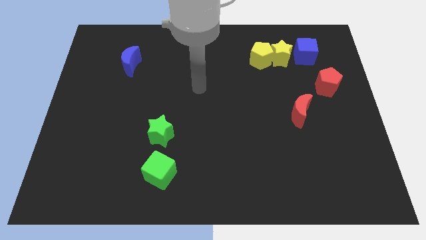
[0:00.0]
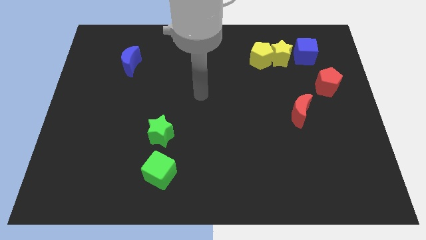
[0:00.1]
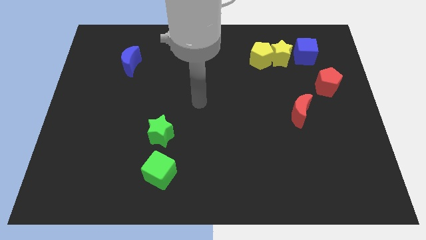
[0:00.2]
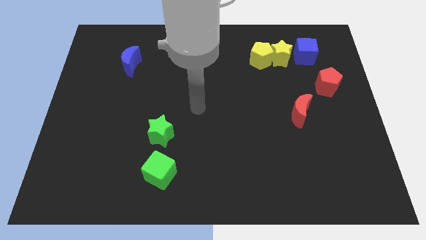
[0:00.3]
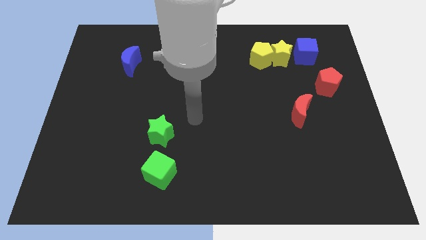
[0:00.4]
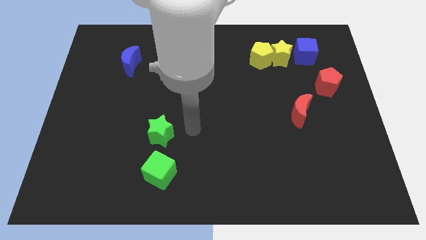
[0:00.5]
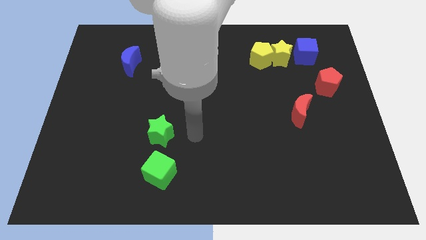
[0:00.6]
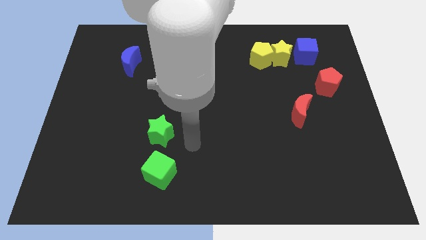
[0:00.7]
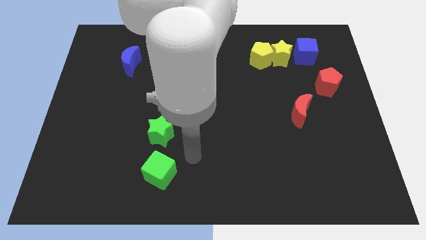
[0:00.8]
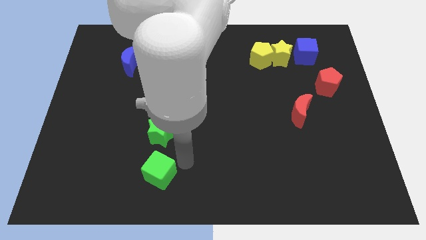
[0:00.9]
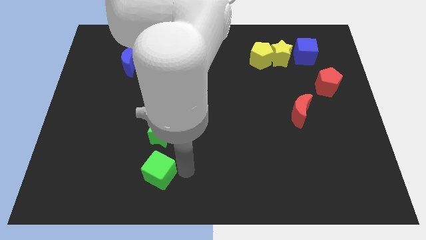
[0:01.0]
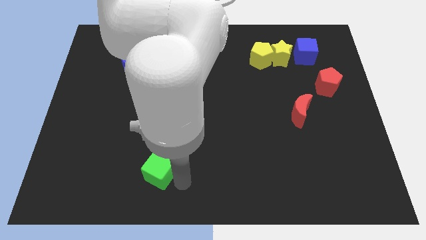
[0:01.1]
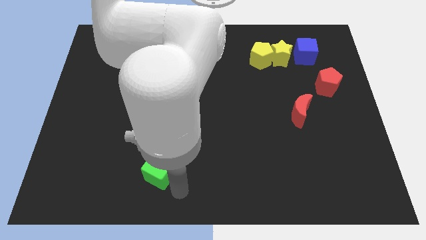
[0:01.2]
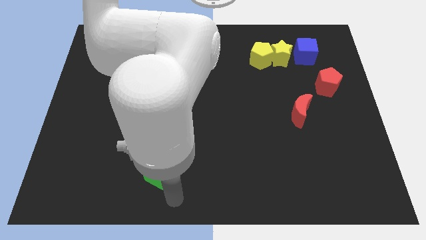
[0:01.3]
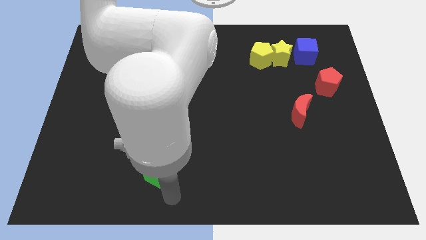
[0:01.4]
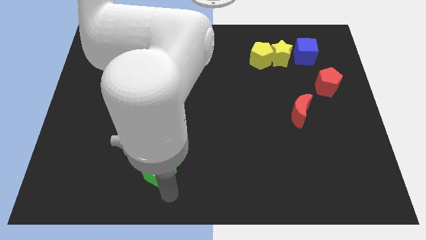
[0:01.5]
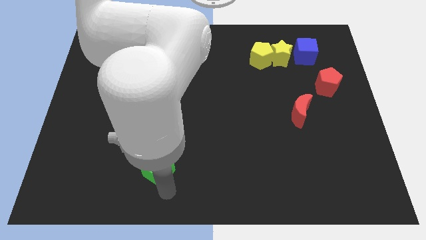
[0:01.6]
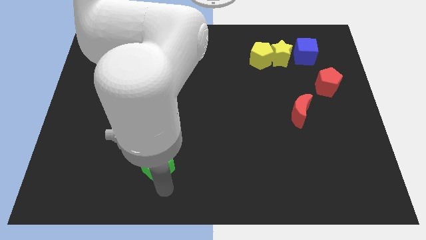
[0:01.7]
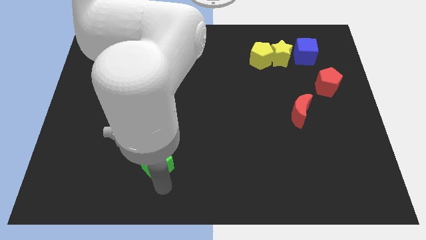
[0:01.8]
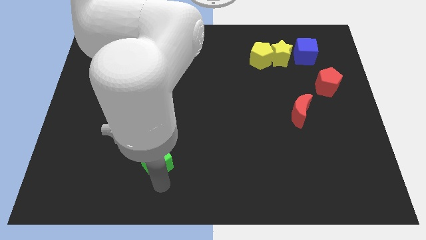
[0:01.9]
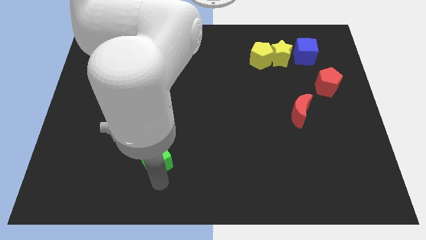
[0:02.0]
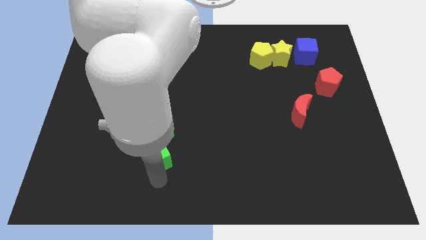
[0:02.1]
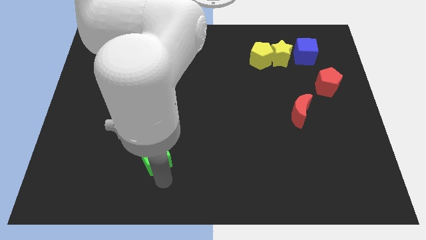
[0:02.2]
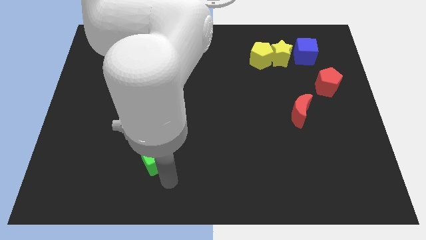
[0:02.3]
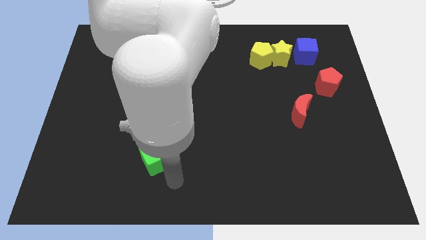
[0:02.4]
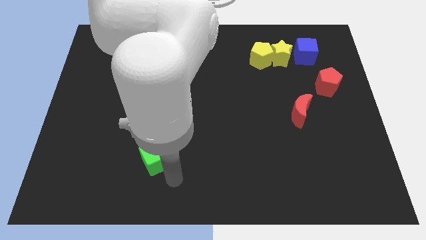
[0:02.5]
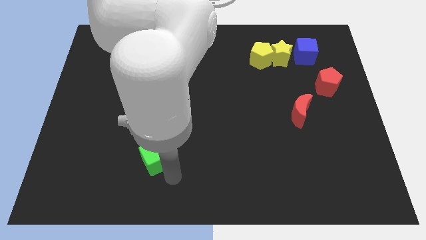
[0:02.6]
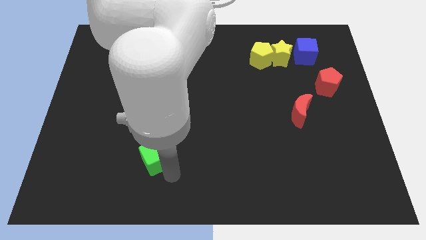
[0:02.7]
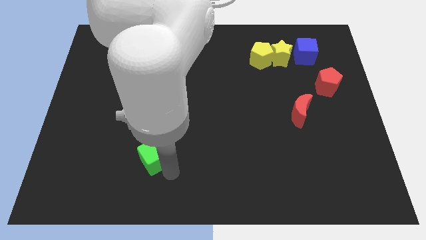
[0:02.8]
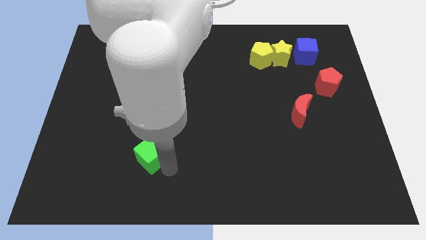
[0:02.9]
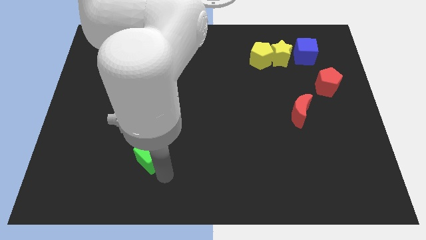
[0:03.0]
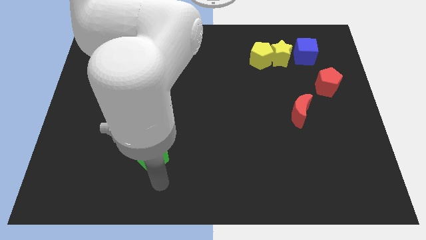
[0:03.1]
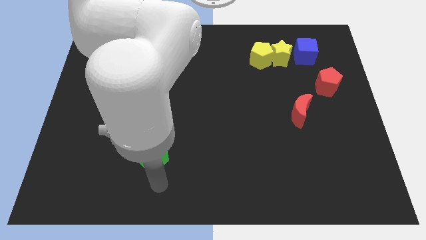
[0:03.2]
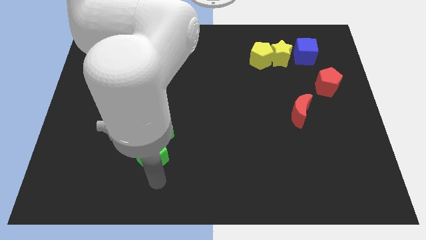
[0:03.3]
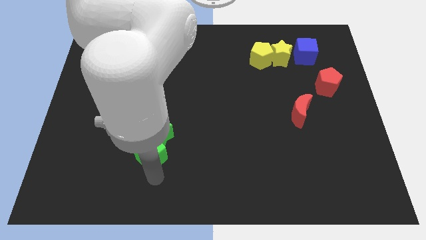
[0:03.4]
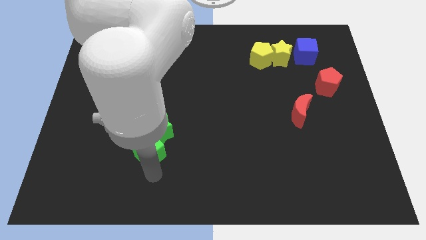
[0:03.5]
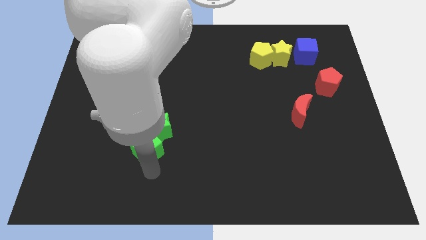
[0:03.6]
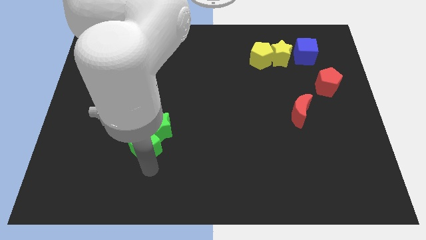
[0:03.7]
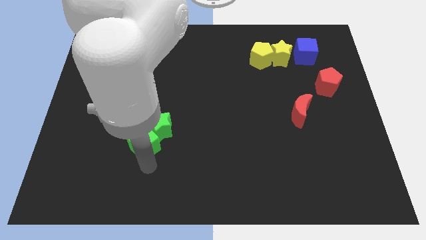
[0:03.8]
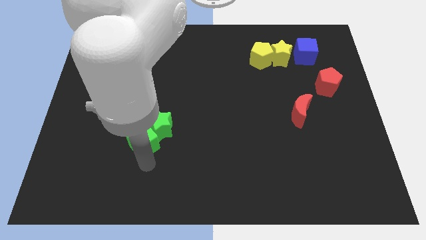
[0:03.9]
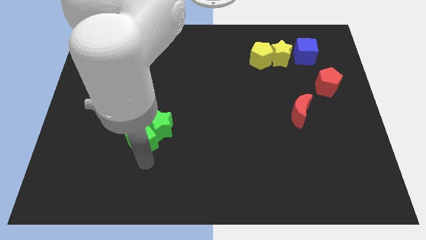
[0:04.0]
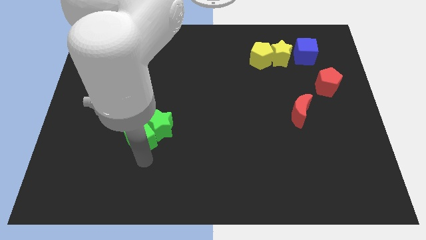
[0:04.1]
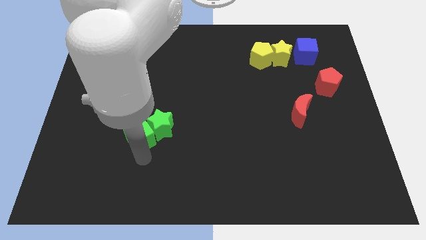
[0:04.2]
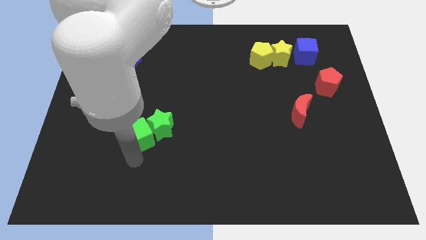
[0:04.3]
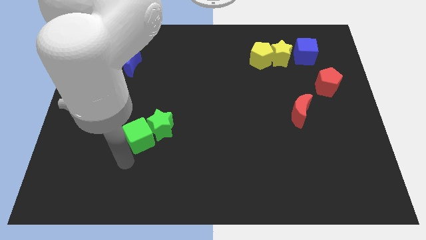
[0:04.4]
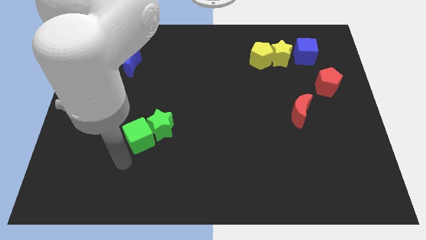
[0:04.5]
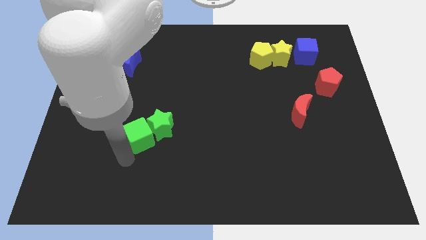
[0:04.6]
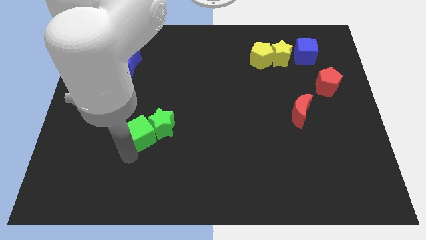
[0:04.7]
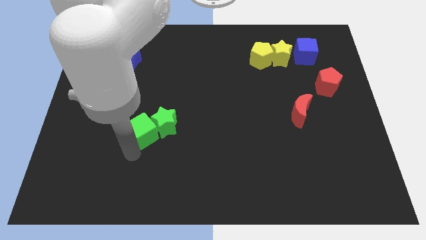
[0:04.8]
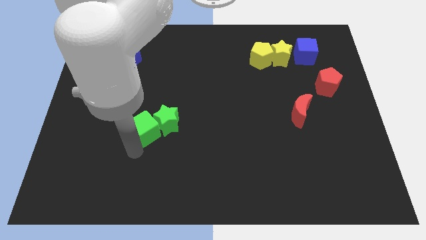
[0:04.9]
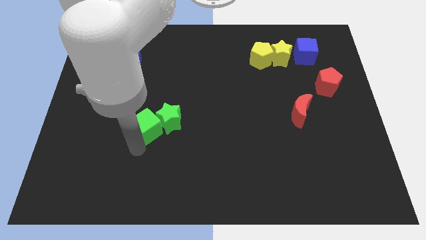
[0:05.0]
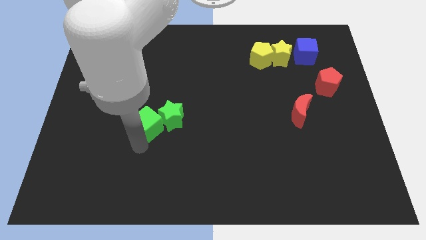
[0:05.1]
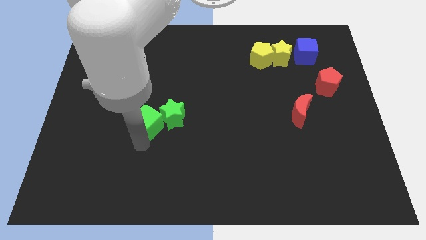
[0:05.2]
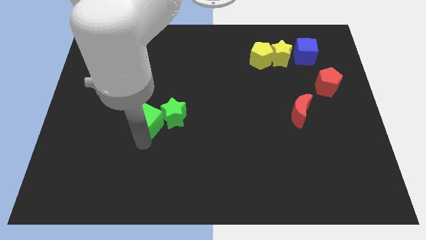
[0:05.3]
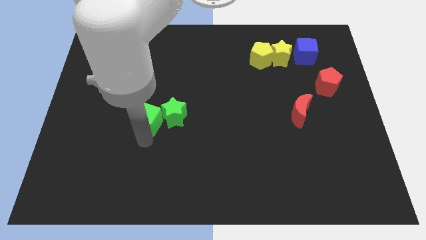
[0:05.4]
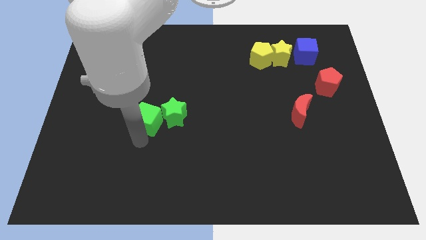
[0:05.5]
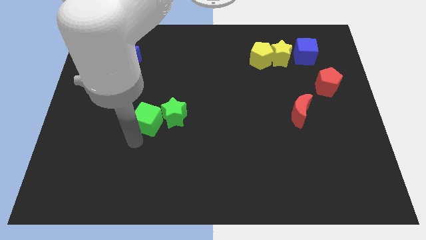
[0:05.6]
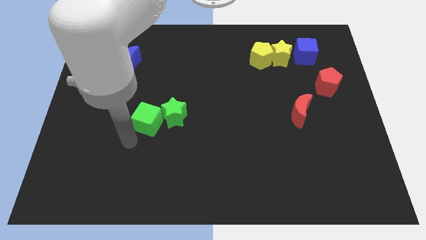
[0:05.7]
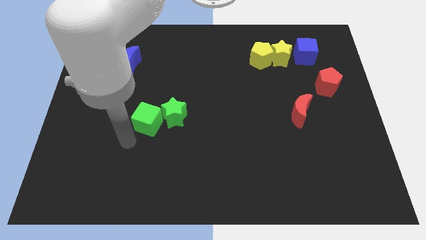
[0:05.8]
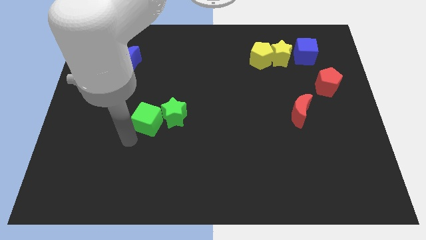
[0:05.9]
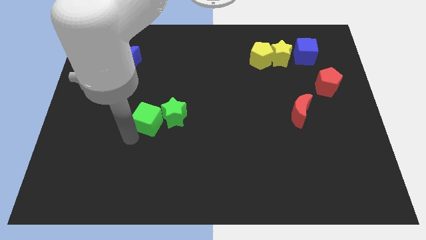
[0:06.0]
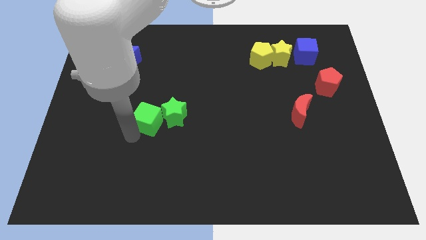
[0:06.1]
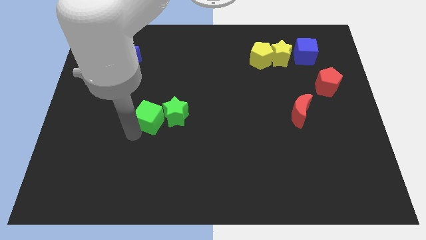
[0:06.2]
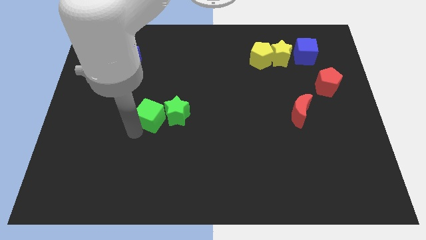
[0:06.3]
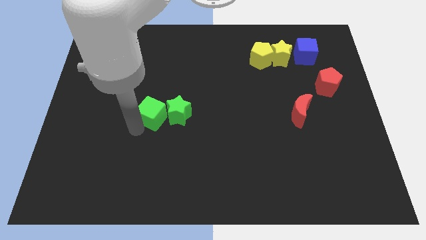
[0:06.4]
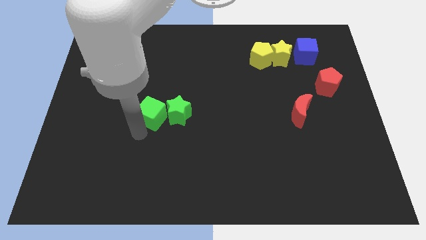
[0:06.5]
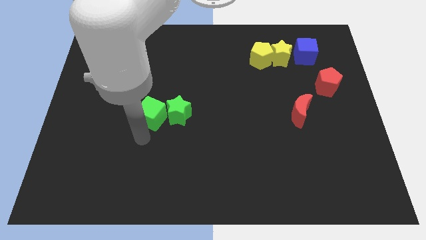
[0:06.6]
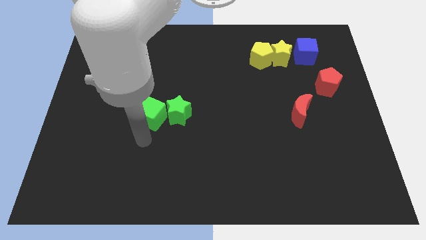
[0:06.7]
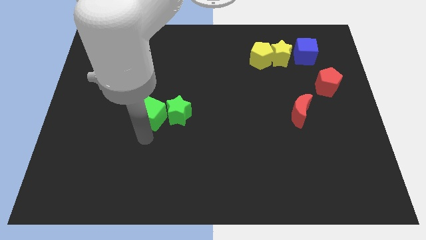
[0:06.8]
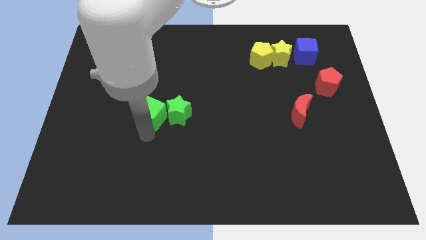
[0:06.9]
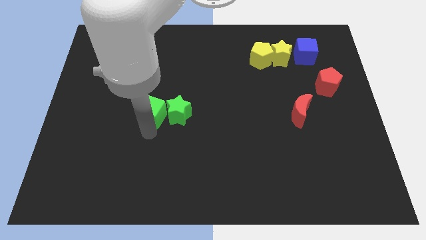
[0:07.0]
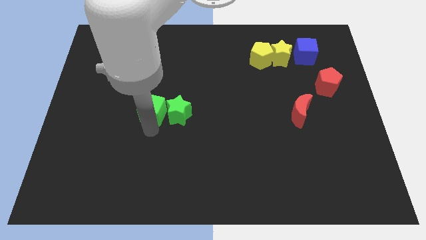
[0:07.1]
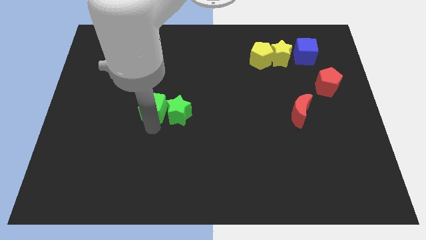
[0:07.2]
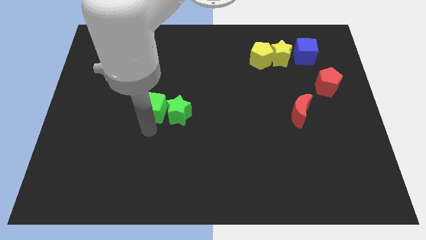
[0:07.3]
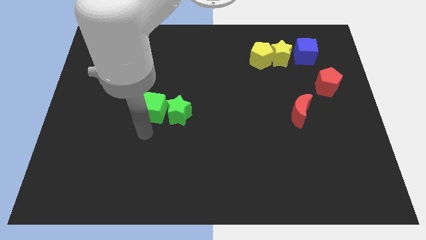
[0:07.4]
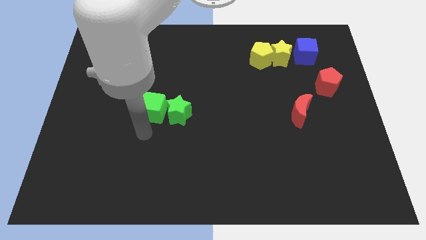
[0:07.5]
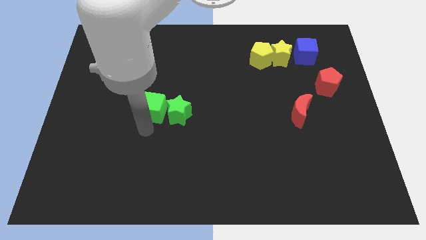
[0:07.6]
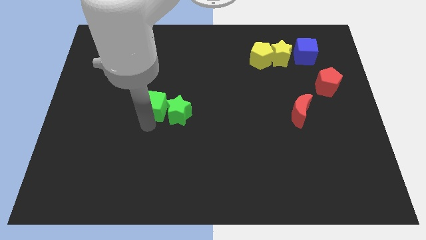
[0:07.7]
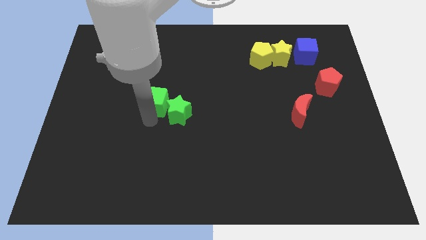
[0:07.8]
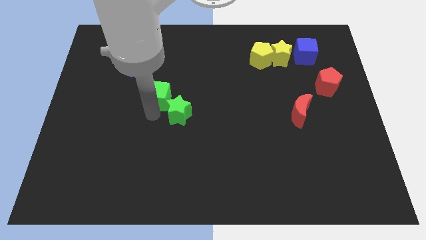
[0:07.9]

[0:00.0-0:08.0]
slide the green cube up
